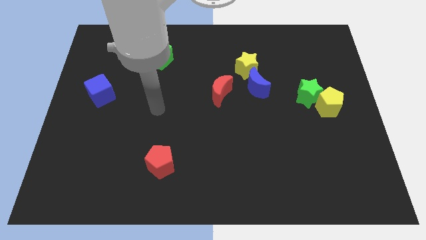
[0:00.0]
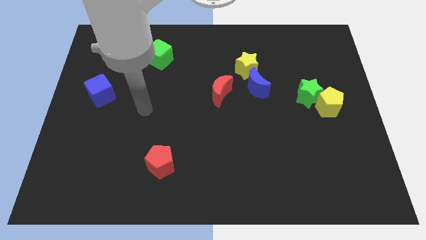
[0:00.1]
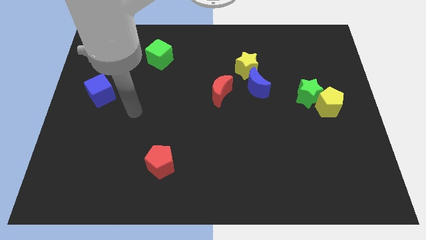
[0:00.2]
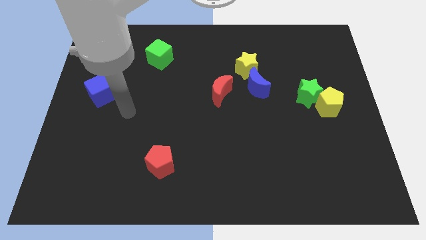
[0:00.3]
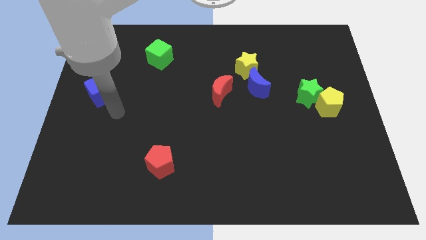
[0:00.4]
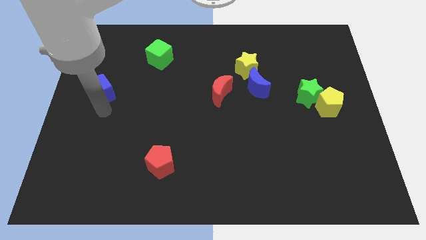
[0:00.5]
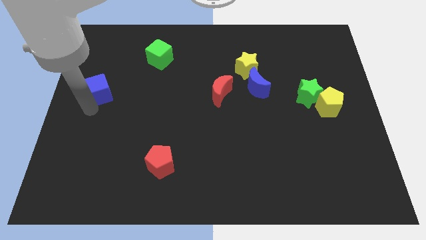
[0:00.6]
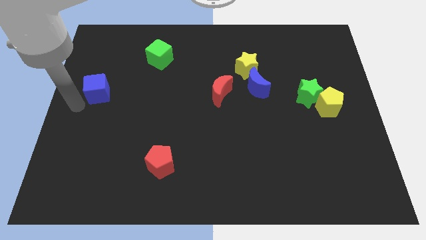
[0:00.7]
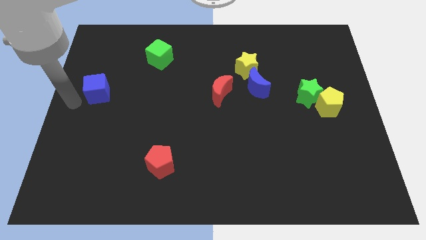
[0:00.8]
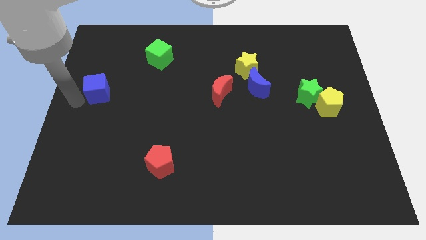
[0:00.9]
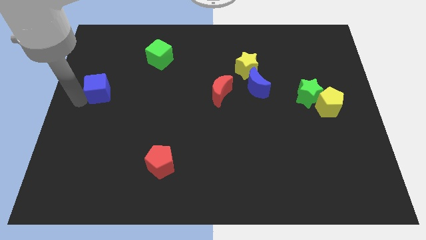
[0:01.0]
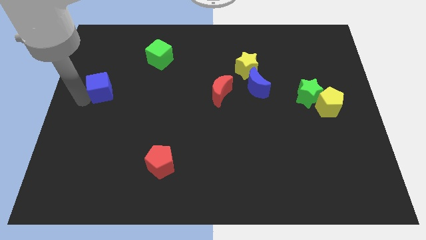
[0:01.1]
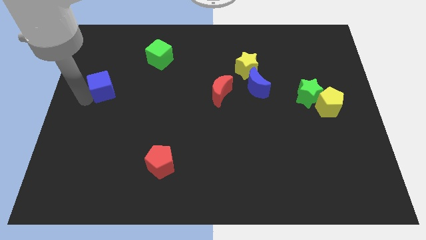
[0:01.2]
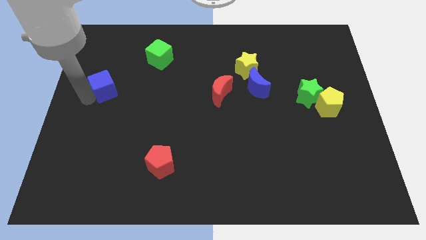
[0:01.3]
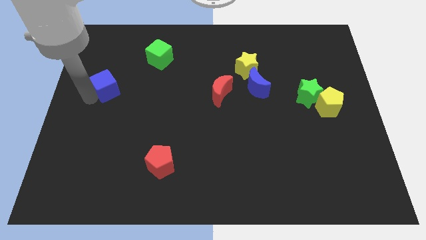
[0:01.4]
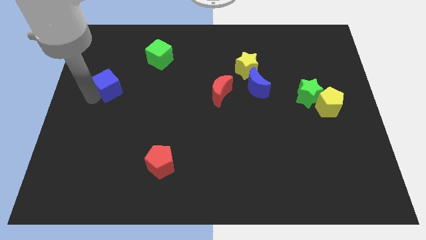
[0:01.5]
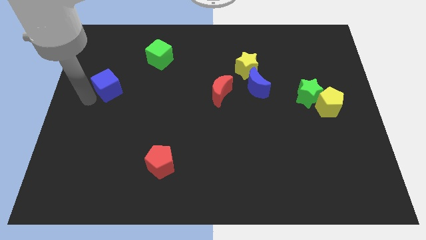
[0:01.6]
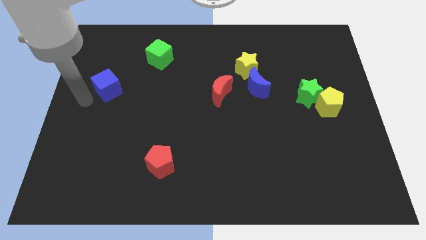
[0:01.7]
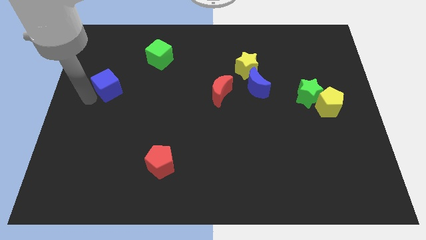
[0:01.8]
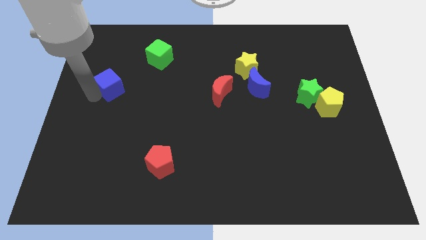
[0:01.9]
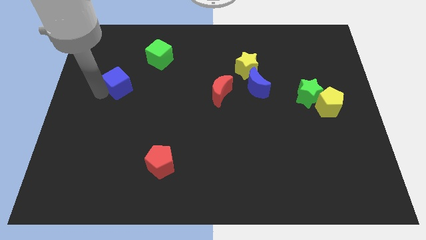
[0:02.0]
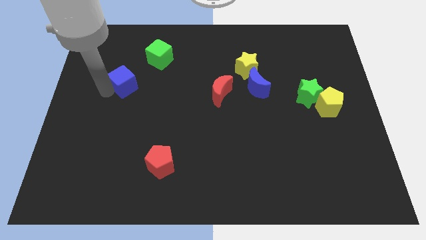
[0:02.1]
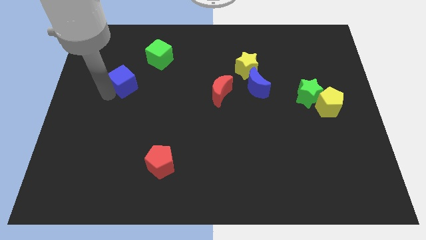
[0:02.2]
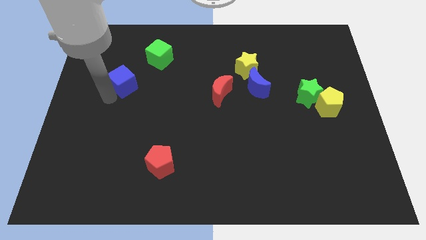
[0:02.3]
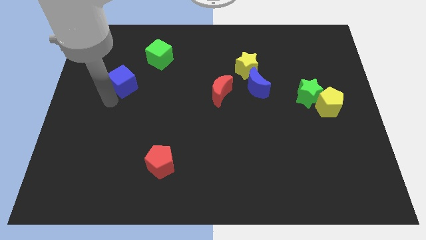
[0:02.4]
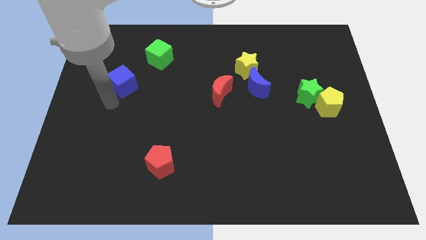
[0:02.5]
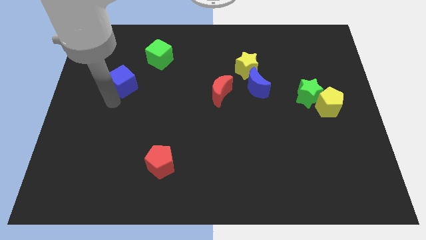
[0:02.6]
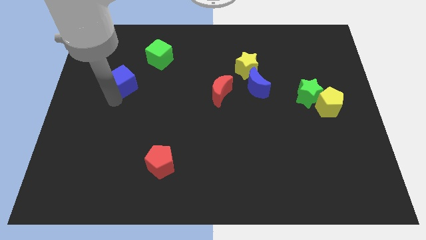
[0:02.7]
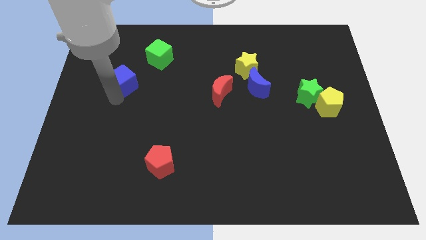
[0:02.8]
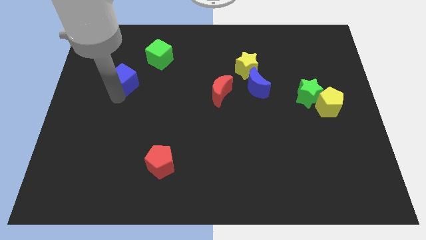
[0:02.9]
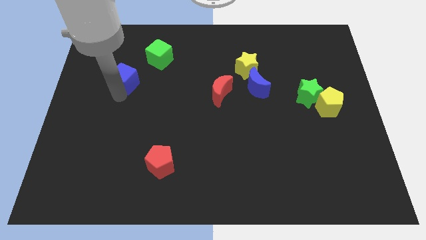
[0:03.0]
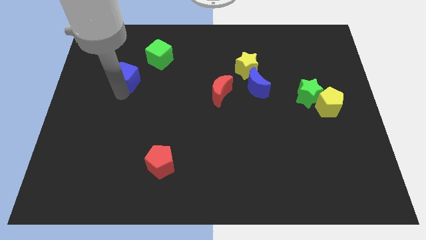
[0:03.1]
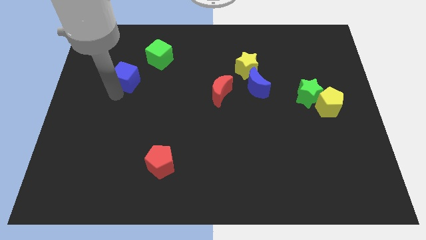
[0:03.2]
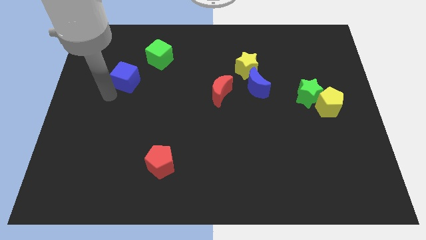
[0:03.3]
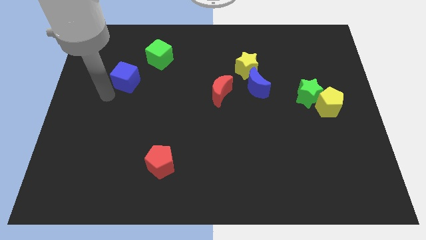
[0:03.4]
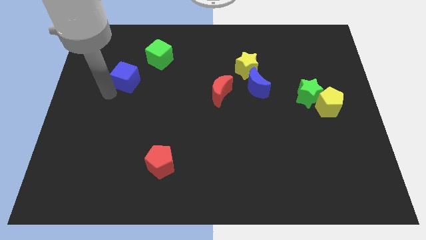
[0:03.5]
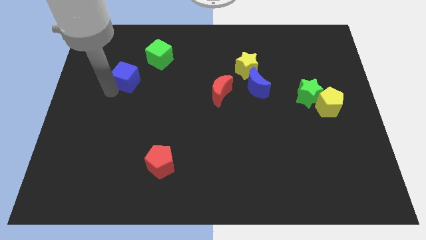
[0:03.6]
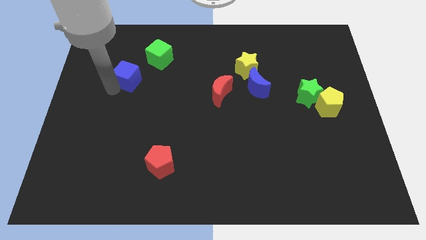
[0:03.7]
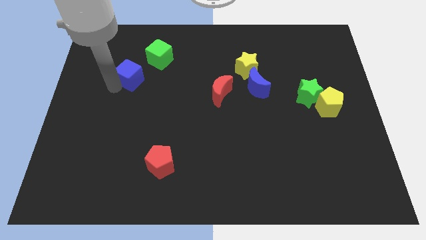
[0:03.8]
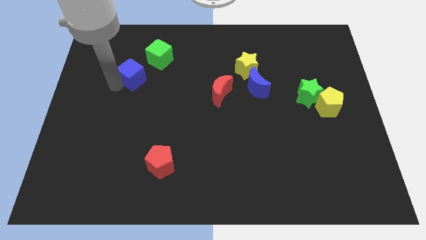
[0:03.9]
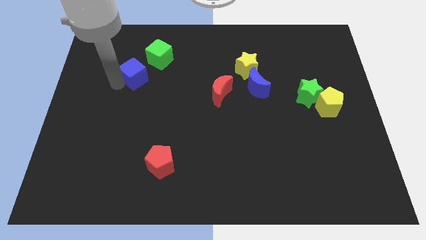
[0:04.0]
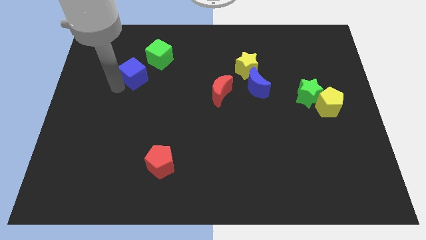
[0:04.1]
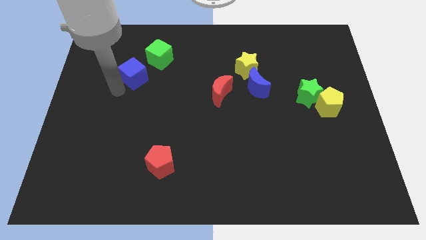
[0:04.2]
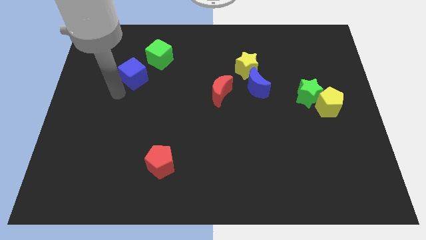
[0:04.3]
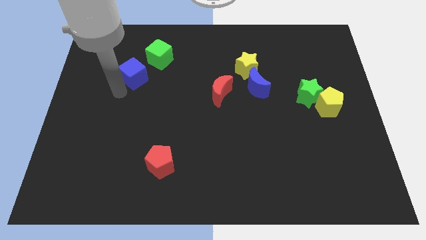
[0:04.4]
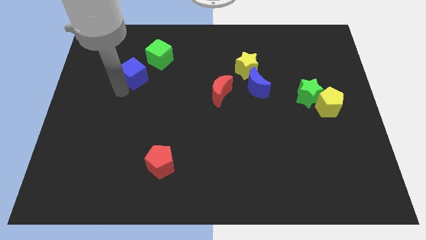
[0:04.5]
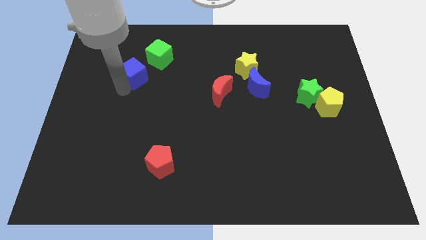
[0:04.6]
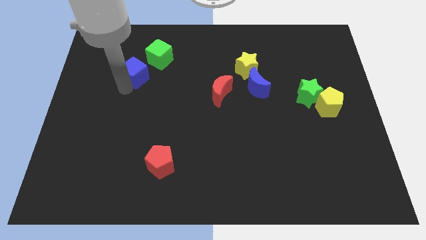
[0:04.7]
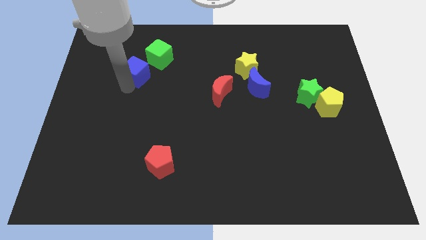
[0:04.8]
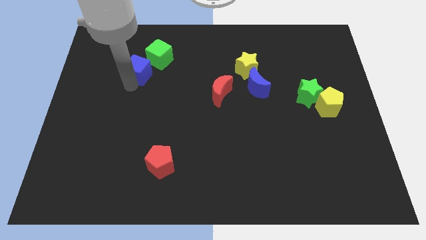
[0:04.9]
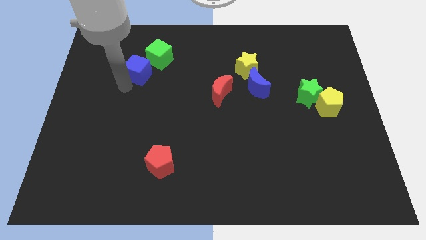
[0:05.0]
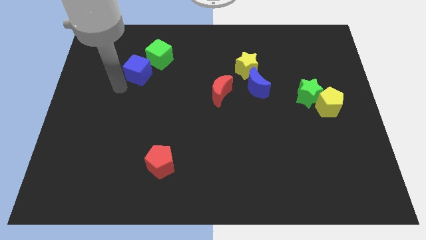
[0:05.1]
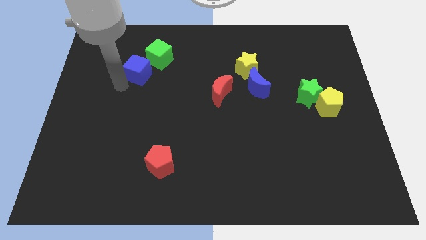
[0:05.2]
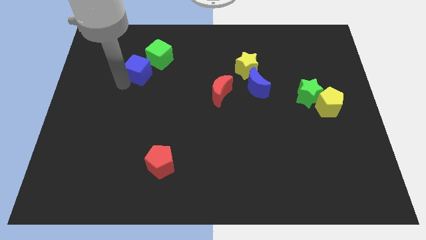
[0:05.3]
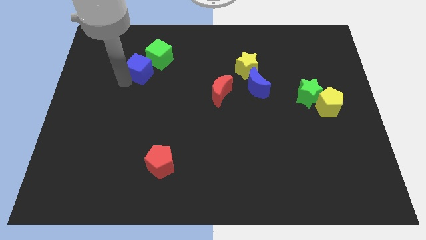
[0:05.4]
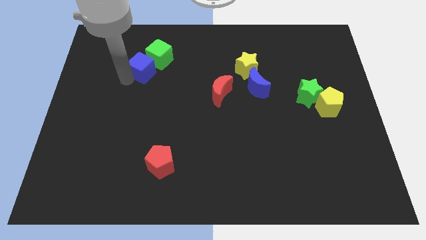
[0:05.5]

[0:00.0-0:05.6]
push the blue cube close to the green cube

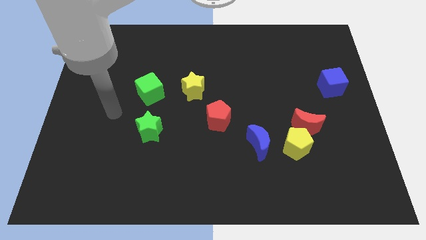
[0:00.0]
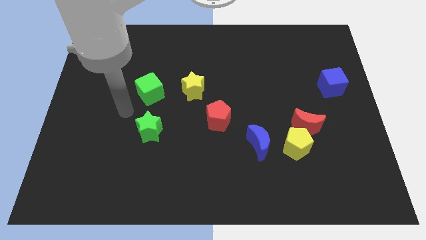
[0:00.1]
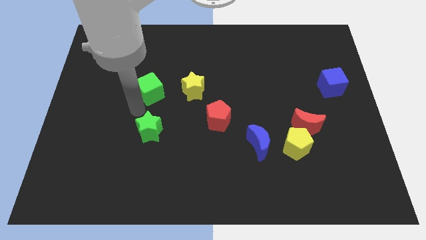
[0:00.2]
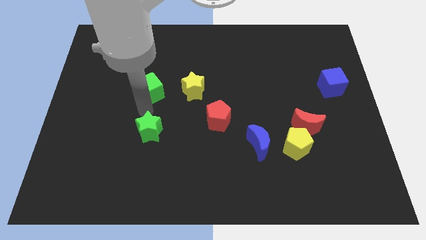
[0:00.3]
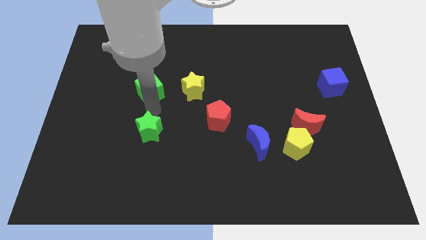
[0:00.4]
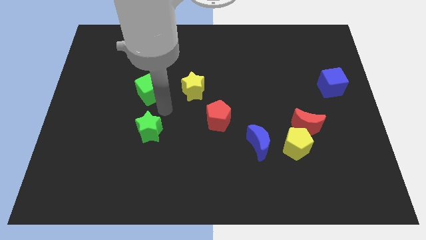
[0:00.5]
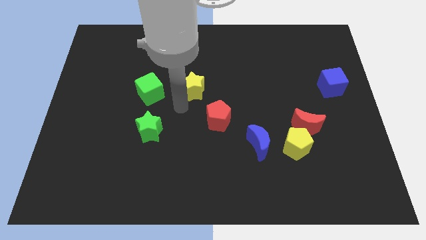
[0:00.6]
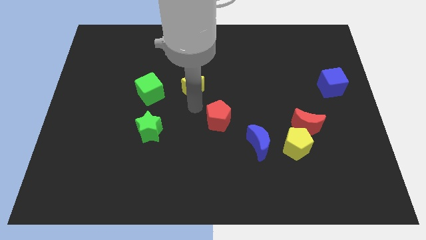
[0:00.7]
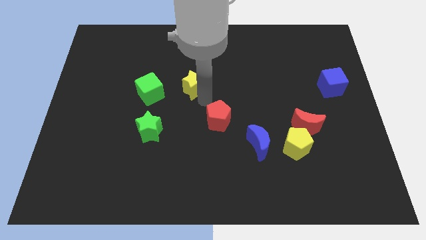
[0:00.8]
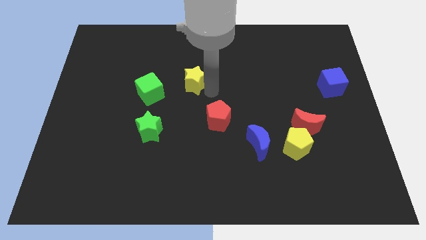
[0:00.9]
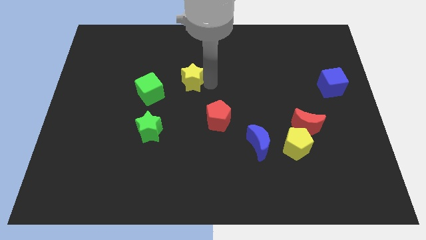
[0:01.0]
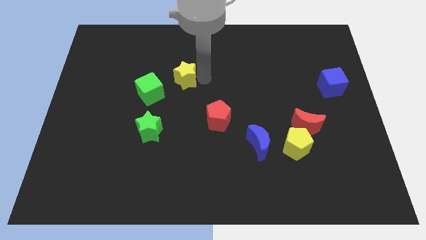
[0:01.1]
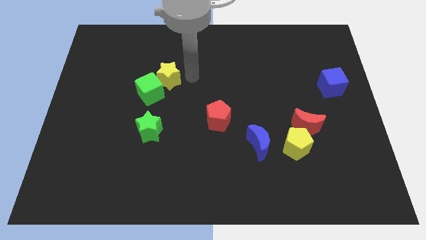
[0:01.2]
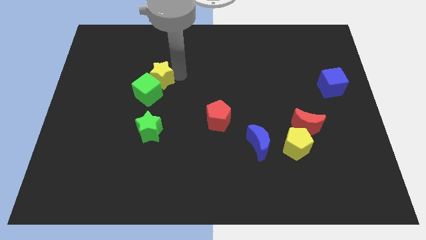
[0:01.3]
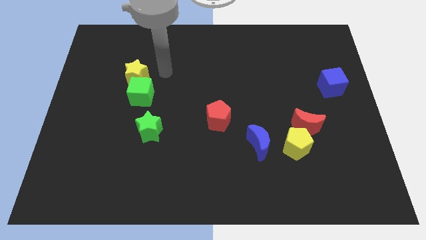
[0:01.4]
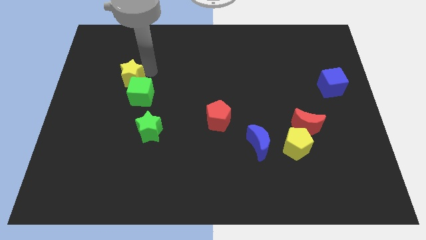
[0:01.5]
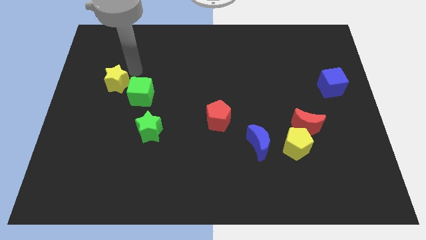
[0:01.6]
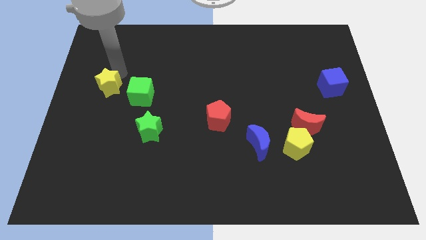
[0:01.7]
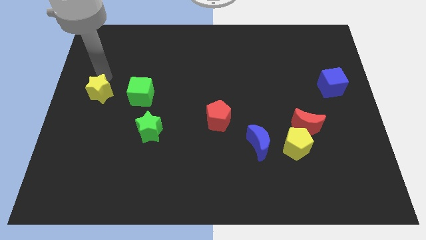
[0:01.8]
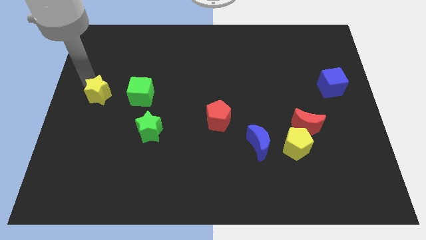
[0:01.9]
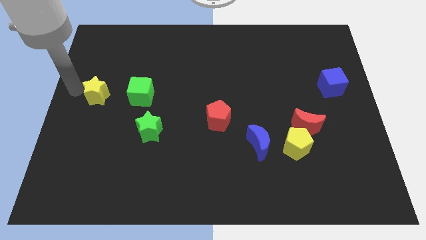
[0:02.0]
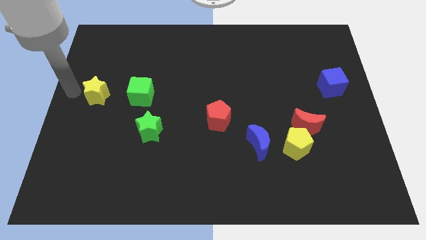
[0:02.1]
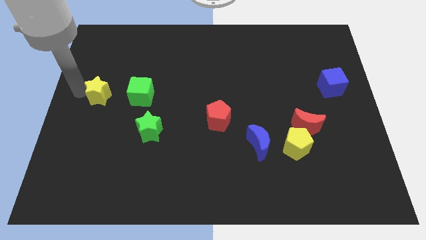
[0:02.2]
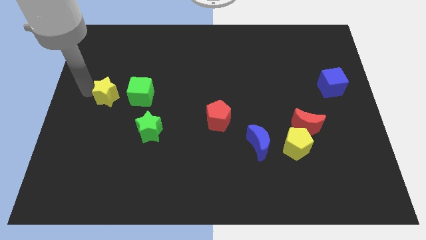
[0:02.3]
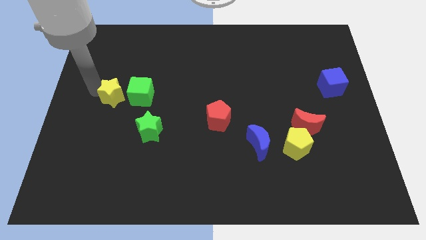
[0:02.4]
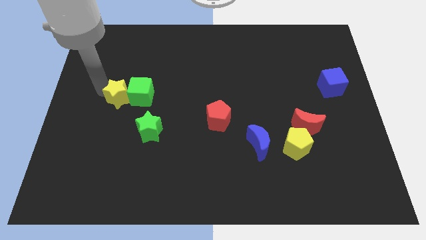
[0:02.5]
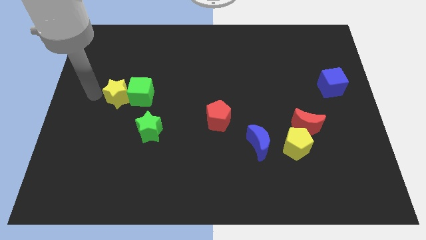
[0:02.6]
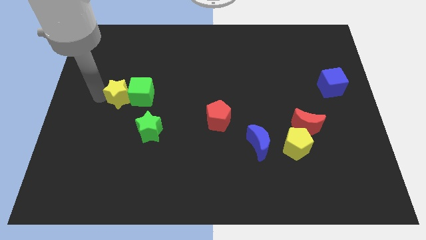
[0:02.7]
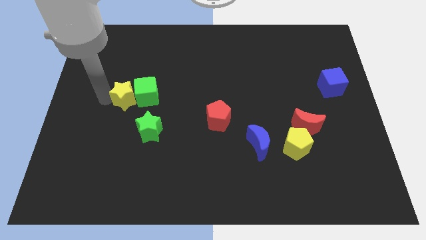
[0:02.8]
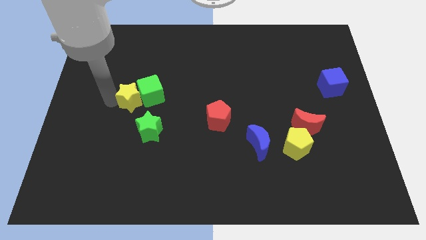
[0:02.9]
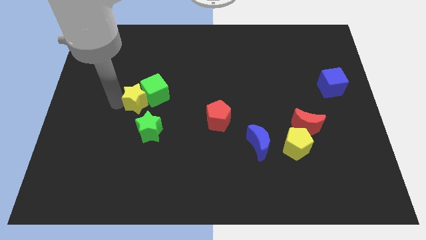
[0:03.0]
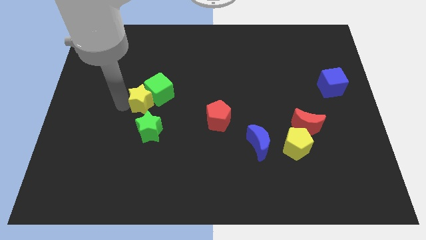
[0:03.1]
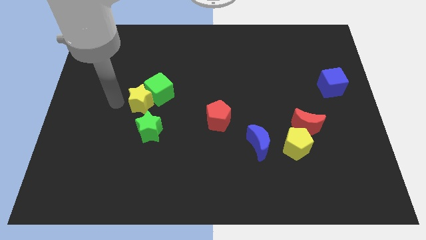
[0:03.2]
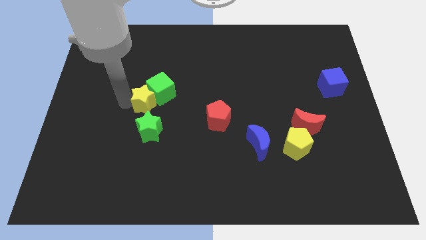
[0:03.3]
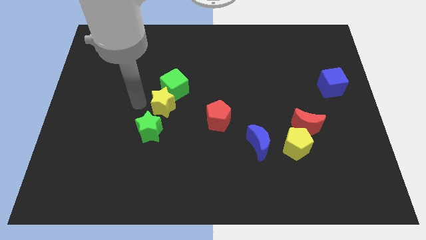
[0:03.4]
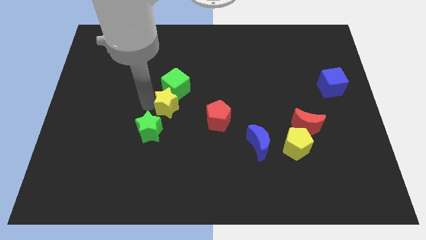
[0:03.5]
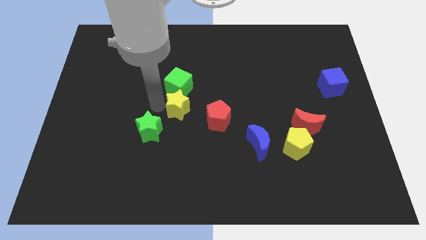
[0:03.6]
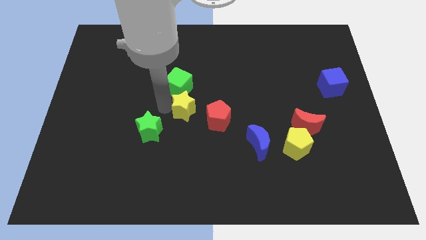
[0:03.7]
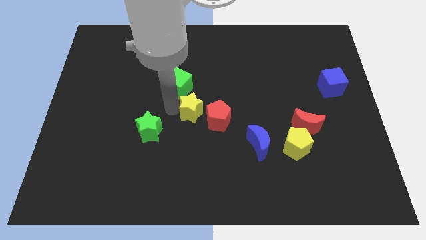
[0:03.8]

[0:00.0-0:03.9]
push the yellow star close to the red pentagon
